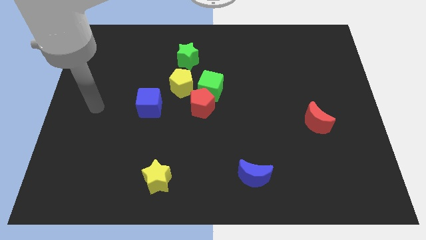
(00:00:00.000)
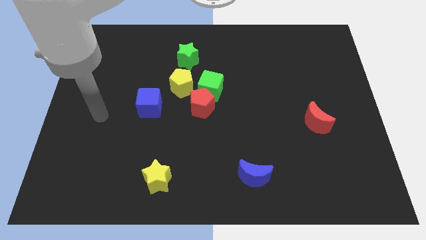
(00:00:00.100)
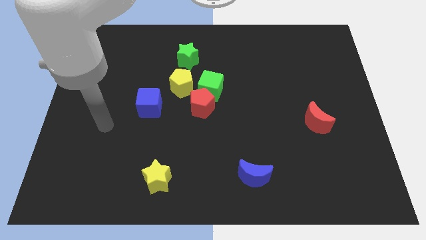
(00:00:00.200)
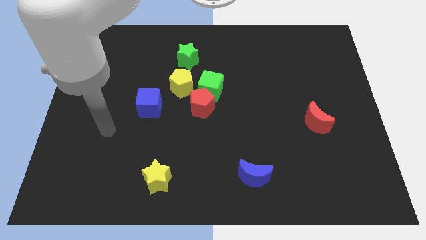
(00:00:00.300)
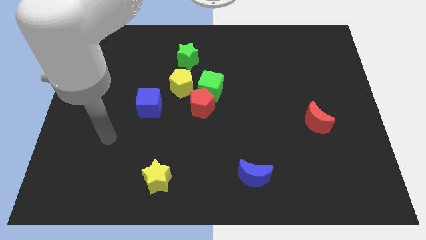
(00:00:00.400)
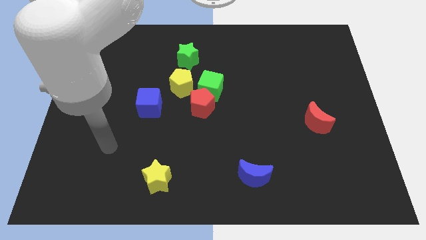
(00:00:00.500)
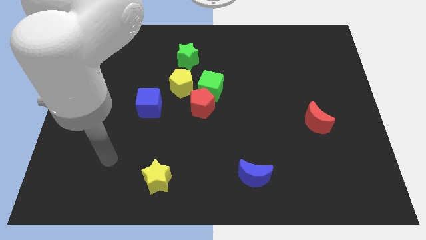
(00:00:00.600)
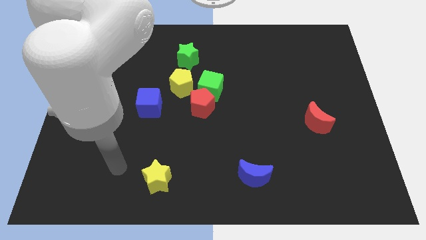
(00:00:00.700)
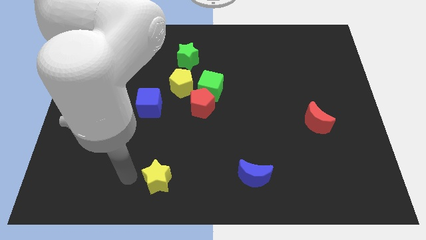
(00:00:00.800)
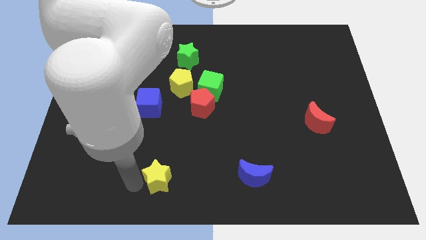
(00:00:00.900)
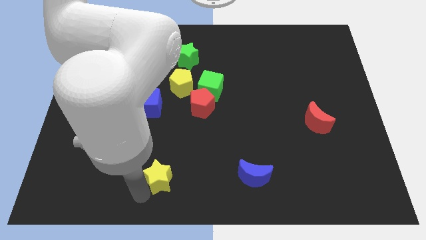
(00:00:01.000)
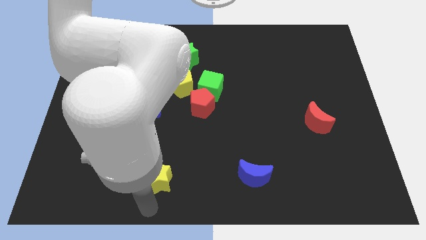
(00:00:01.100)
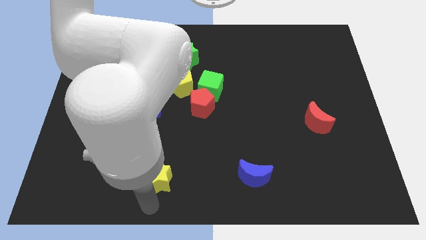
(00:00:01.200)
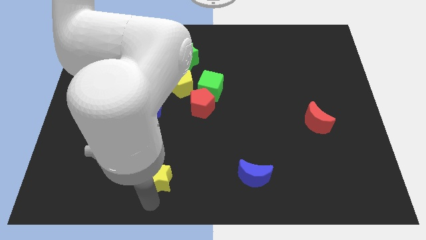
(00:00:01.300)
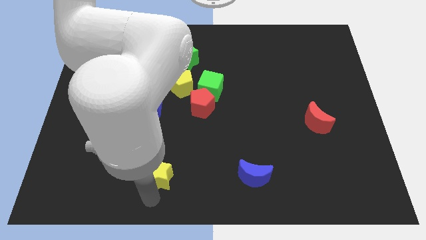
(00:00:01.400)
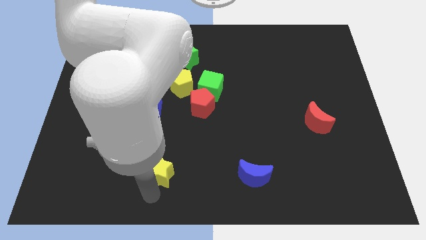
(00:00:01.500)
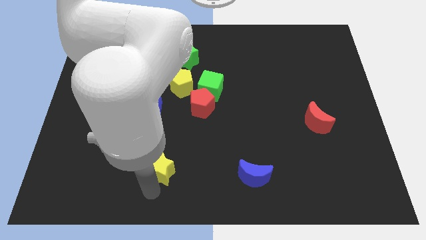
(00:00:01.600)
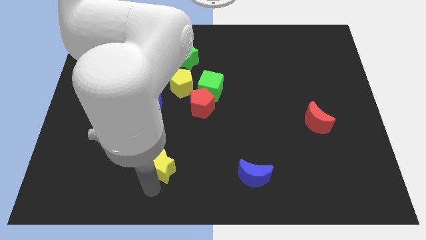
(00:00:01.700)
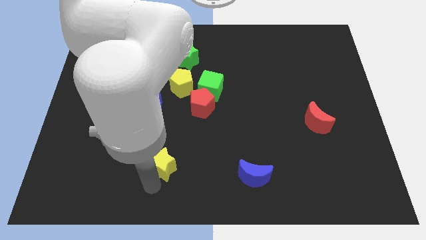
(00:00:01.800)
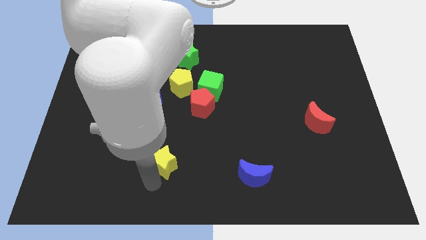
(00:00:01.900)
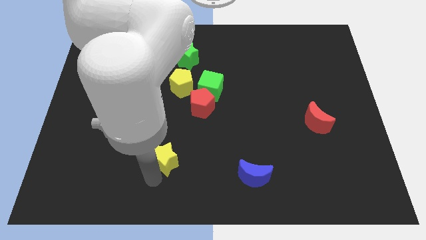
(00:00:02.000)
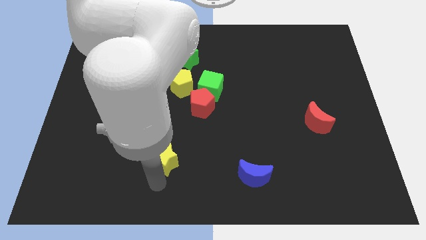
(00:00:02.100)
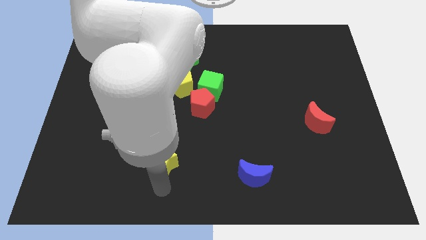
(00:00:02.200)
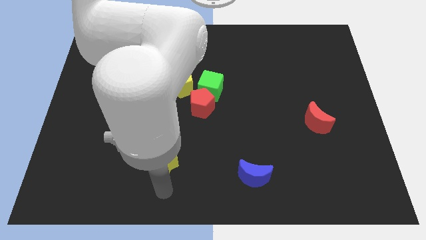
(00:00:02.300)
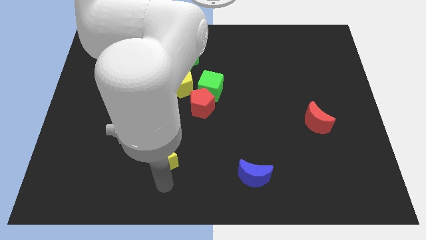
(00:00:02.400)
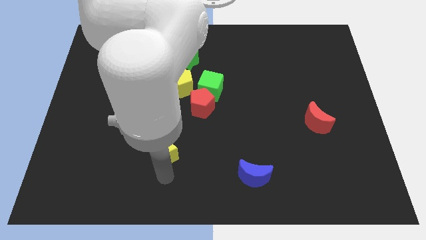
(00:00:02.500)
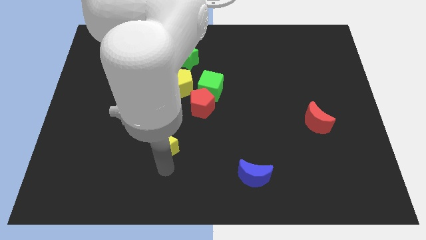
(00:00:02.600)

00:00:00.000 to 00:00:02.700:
push the yellow star a little up

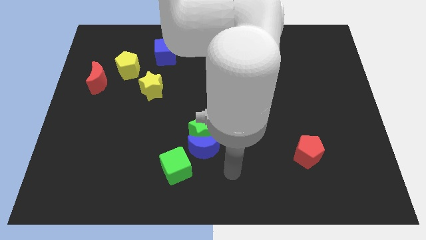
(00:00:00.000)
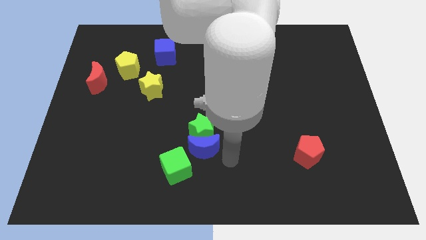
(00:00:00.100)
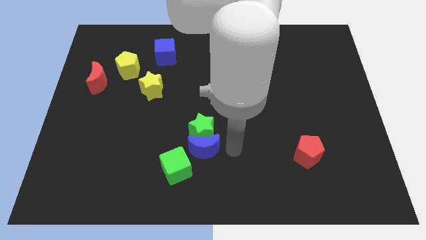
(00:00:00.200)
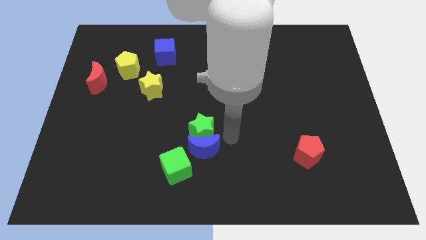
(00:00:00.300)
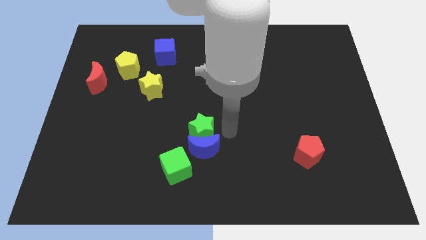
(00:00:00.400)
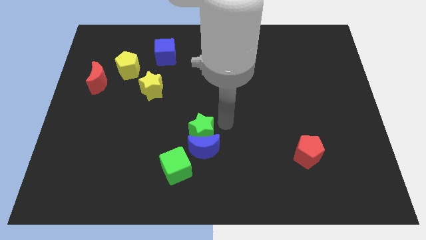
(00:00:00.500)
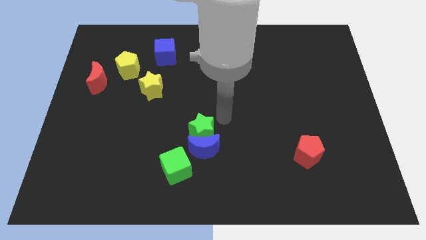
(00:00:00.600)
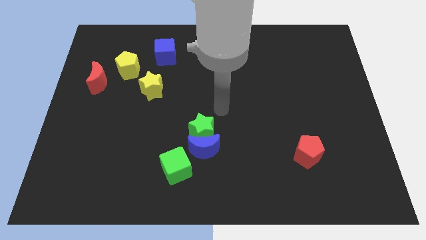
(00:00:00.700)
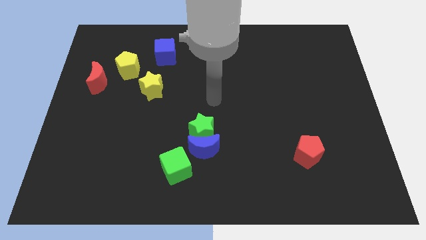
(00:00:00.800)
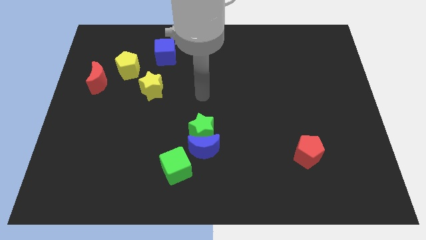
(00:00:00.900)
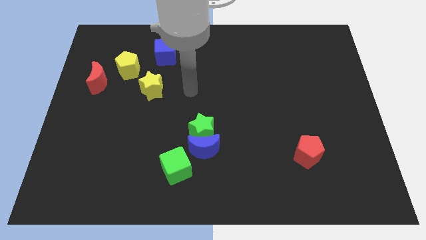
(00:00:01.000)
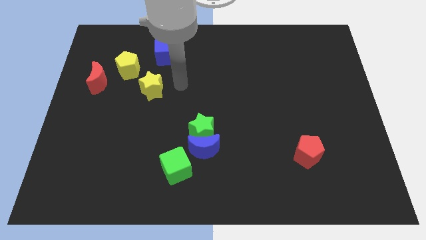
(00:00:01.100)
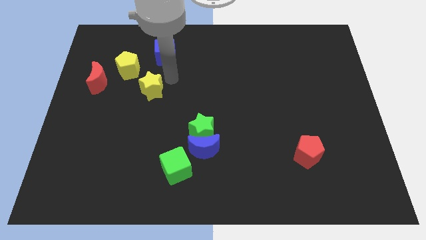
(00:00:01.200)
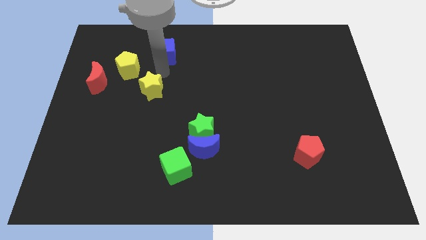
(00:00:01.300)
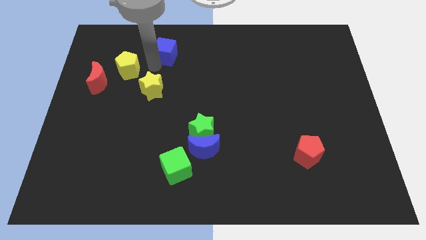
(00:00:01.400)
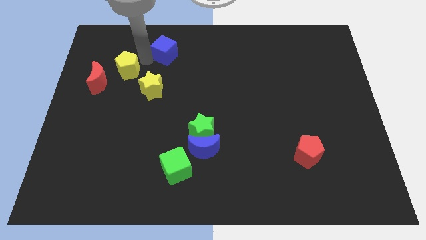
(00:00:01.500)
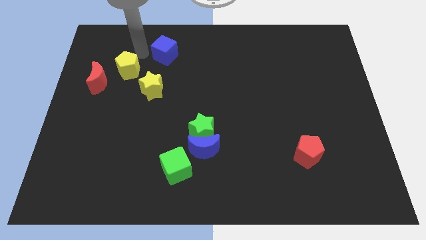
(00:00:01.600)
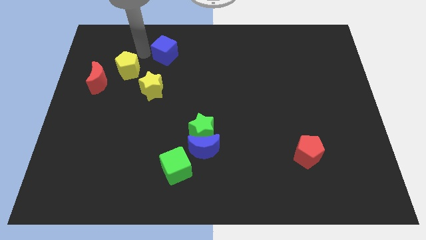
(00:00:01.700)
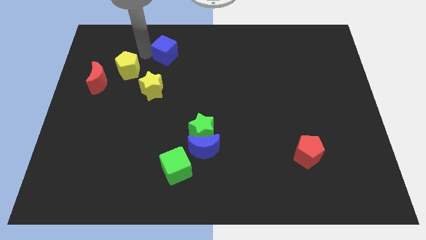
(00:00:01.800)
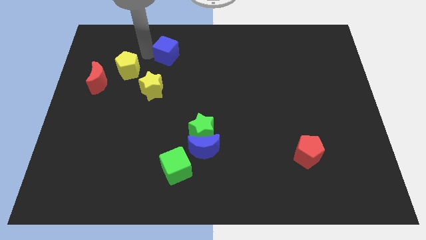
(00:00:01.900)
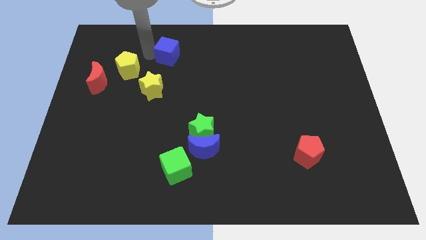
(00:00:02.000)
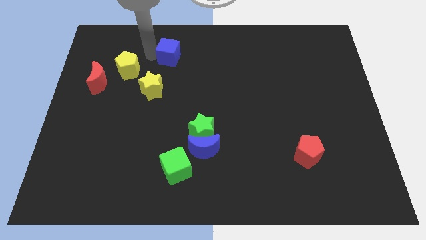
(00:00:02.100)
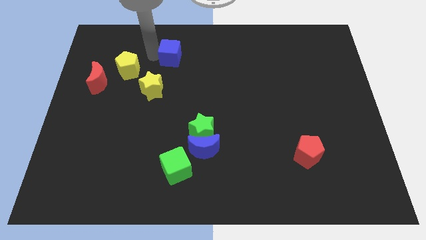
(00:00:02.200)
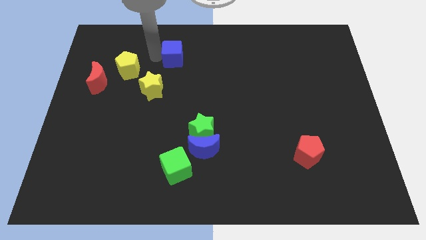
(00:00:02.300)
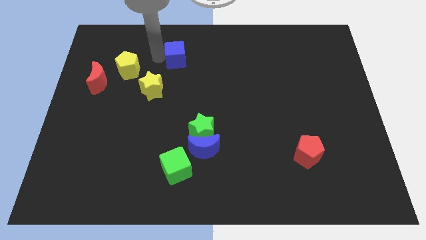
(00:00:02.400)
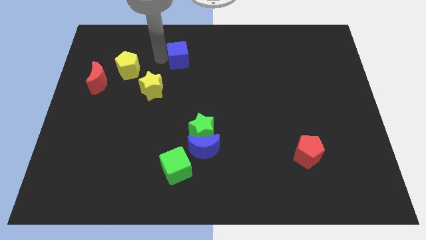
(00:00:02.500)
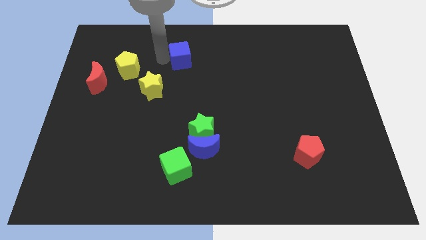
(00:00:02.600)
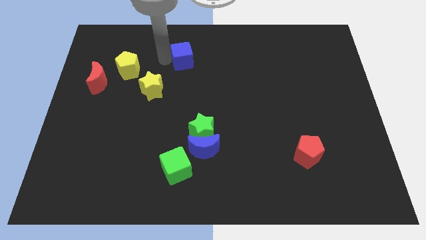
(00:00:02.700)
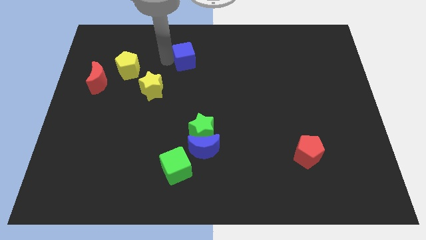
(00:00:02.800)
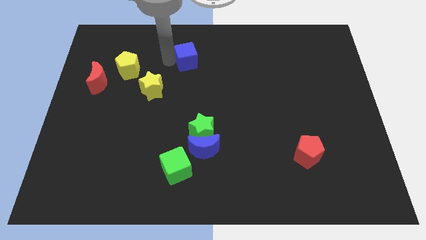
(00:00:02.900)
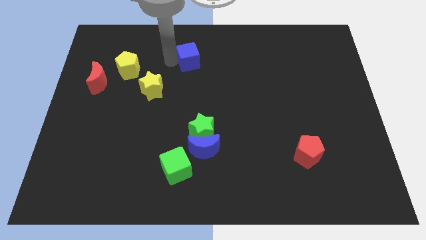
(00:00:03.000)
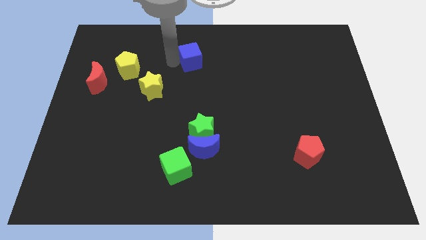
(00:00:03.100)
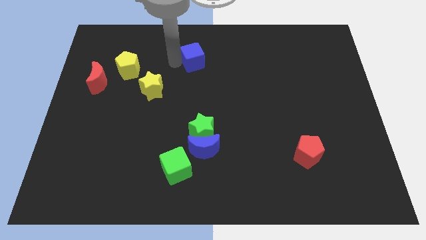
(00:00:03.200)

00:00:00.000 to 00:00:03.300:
slightly move the blue cube right

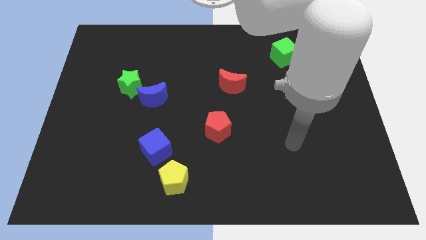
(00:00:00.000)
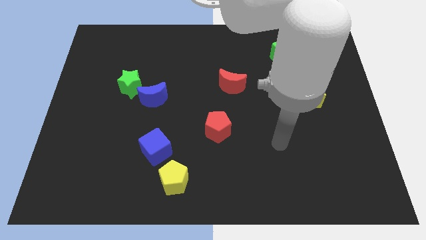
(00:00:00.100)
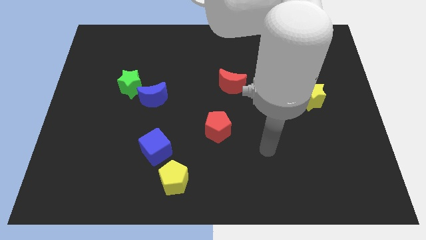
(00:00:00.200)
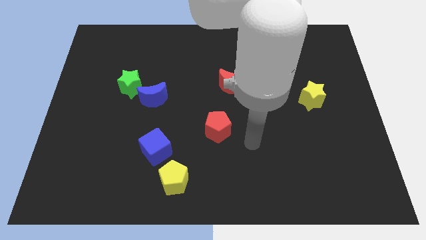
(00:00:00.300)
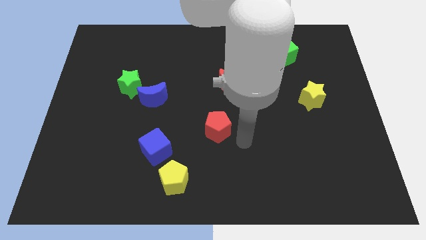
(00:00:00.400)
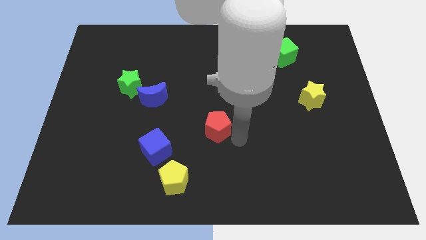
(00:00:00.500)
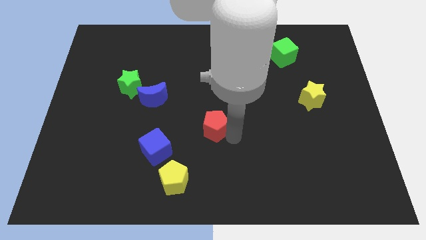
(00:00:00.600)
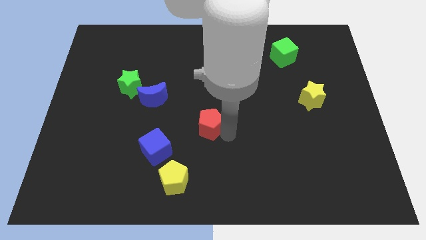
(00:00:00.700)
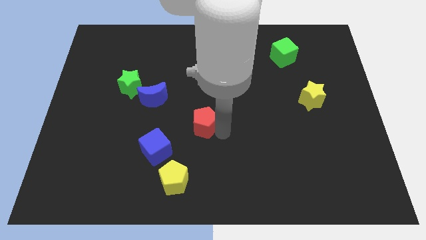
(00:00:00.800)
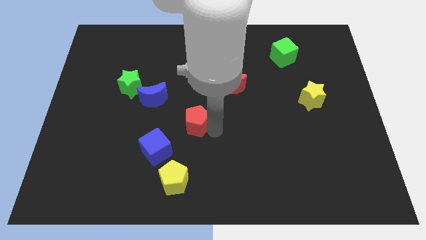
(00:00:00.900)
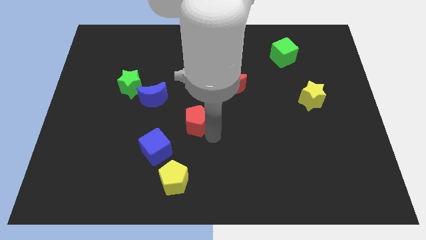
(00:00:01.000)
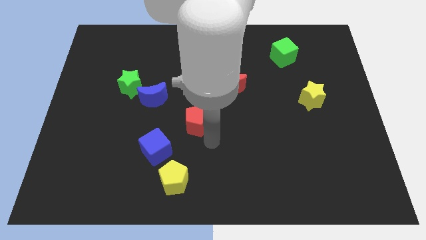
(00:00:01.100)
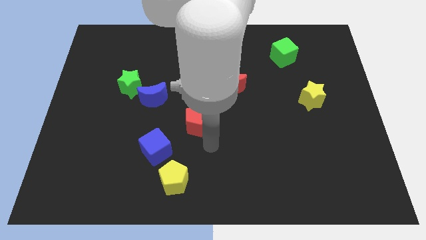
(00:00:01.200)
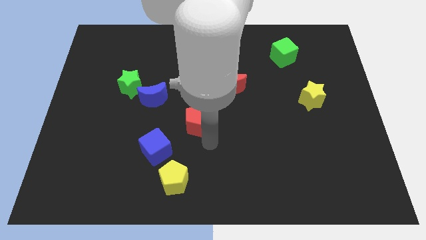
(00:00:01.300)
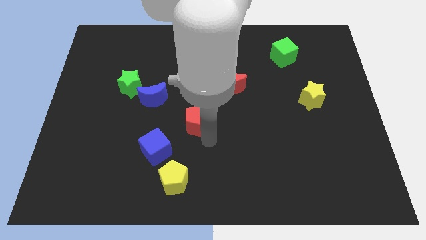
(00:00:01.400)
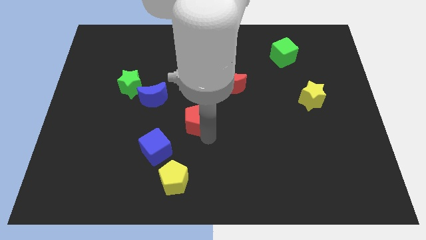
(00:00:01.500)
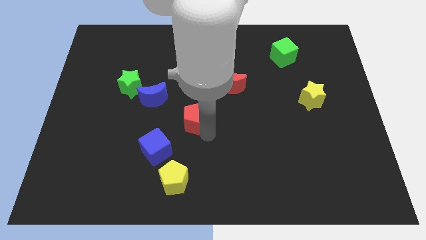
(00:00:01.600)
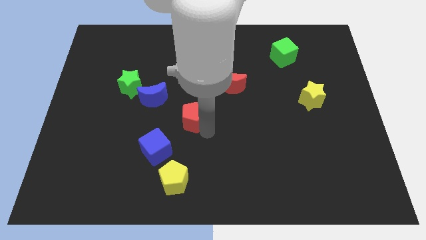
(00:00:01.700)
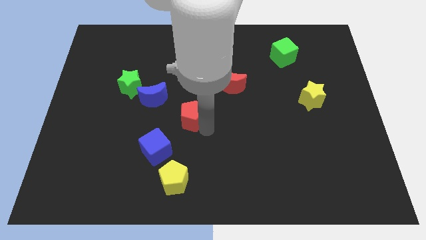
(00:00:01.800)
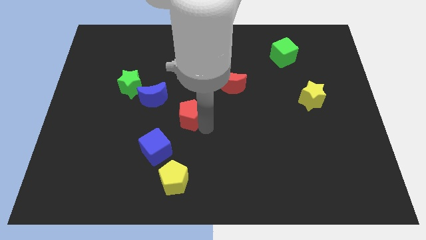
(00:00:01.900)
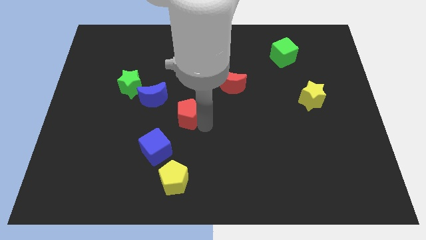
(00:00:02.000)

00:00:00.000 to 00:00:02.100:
move the red pentagon somewhat upwards and then to the left
